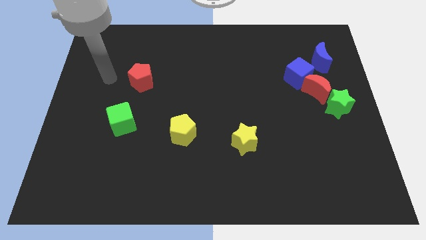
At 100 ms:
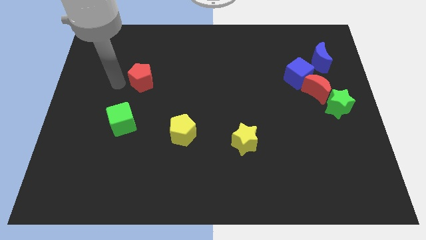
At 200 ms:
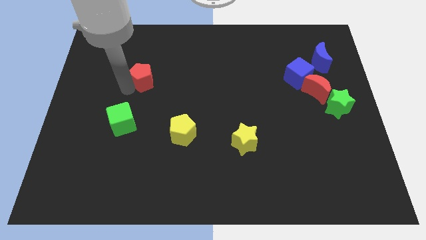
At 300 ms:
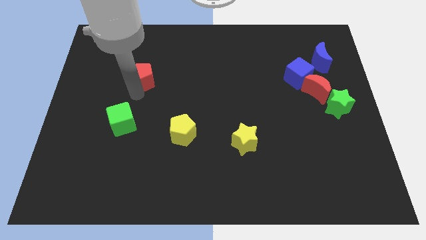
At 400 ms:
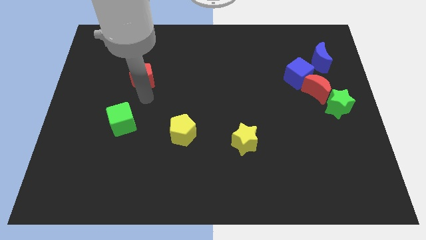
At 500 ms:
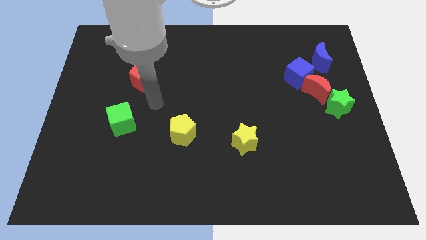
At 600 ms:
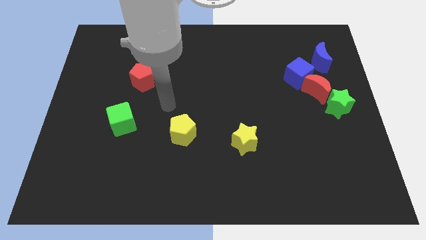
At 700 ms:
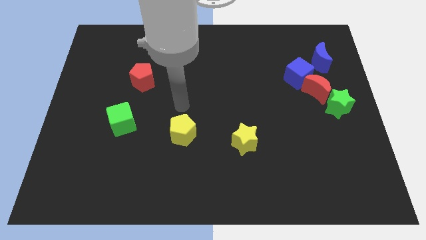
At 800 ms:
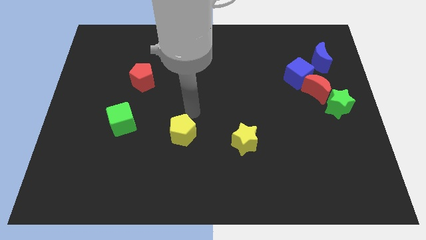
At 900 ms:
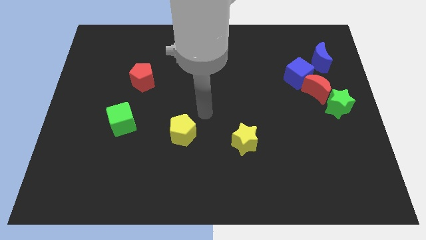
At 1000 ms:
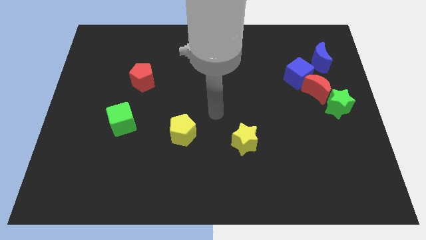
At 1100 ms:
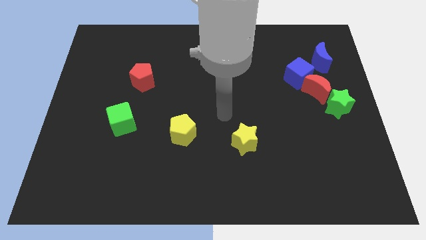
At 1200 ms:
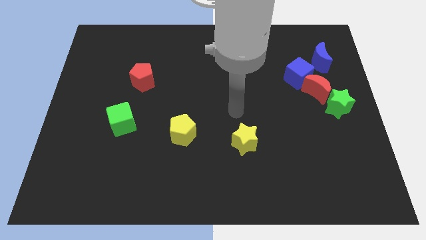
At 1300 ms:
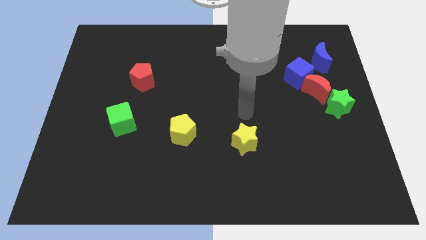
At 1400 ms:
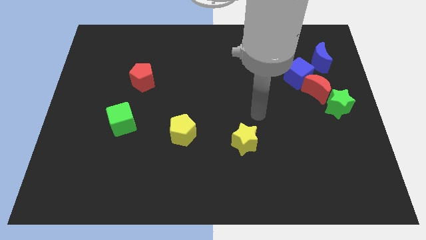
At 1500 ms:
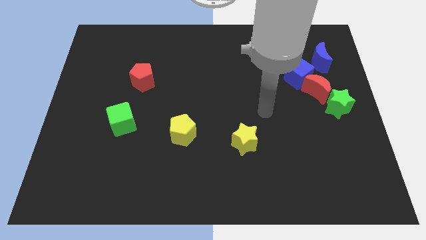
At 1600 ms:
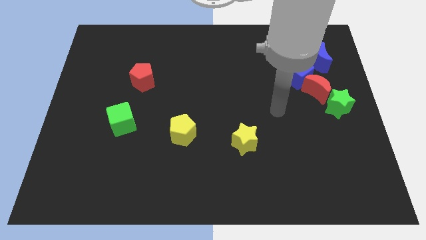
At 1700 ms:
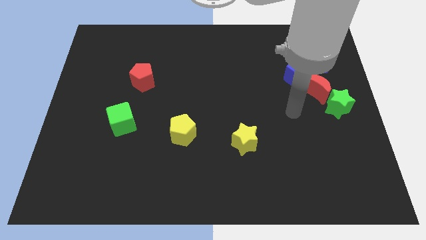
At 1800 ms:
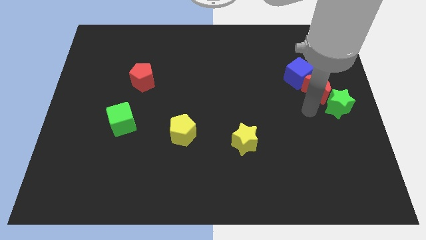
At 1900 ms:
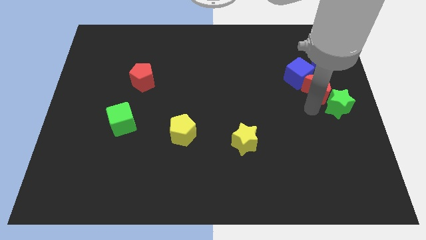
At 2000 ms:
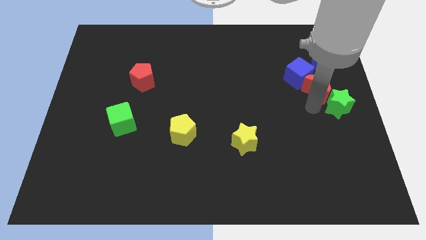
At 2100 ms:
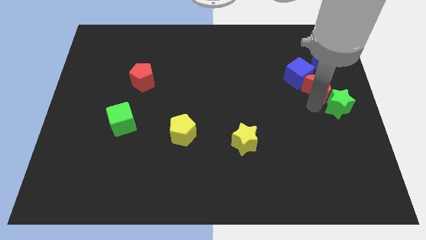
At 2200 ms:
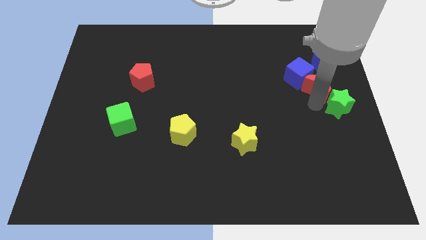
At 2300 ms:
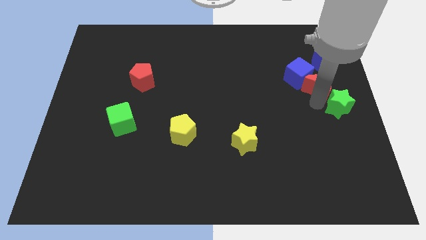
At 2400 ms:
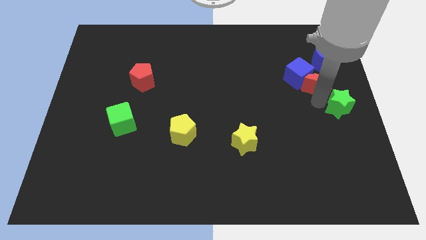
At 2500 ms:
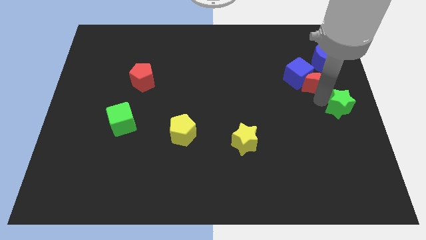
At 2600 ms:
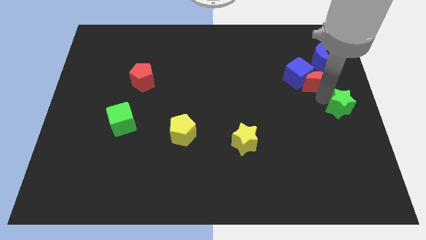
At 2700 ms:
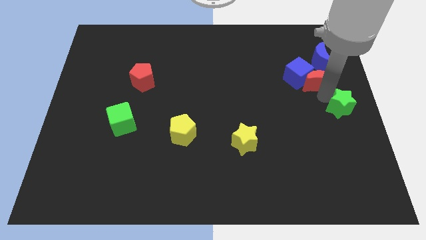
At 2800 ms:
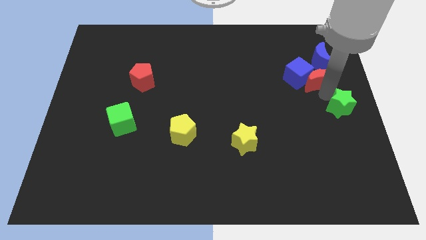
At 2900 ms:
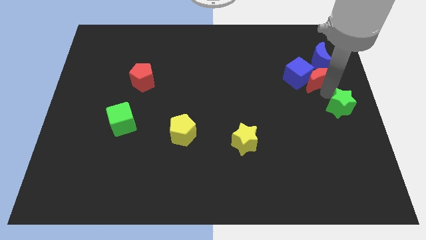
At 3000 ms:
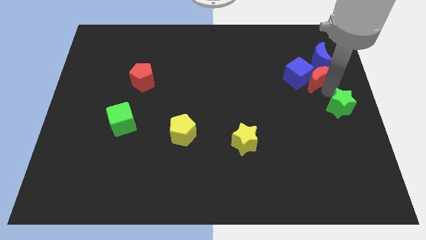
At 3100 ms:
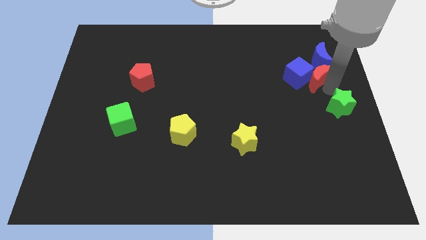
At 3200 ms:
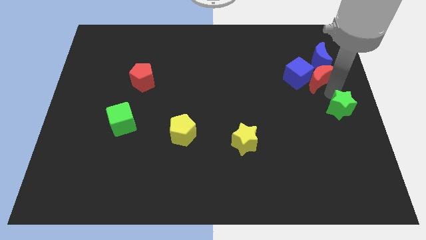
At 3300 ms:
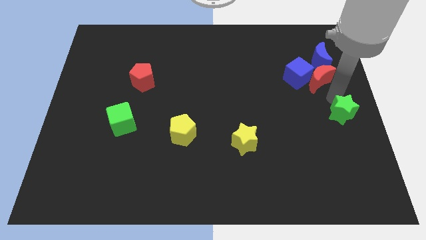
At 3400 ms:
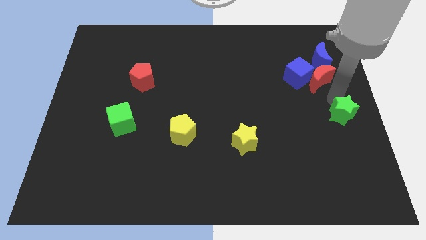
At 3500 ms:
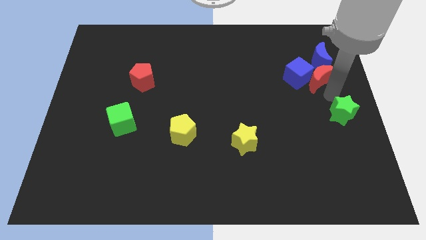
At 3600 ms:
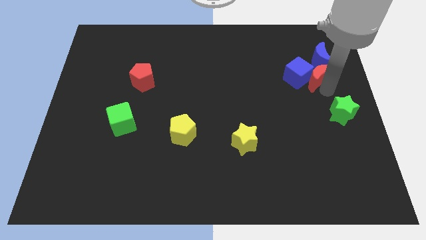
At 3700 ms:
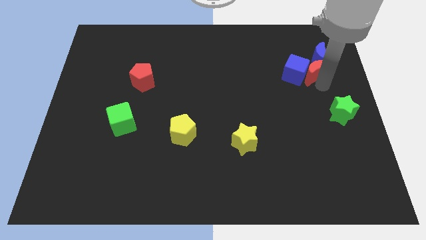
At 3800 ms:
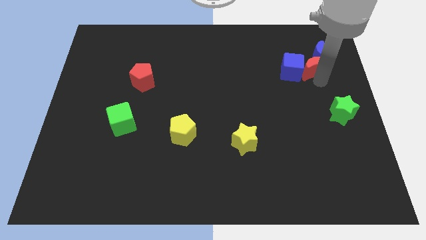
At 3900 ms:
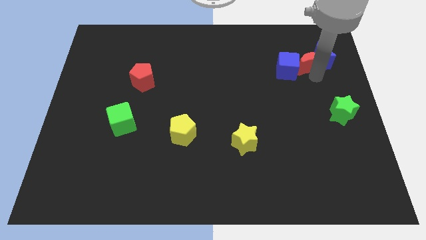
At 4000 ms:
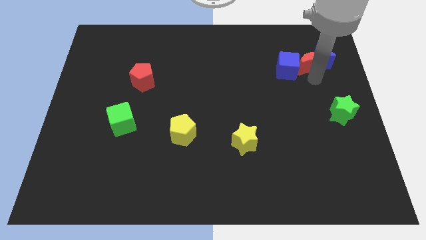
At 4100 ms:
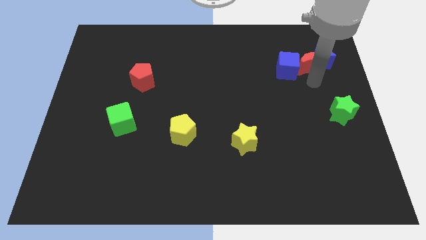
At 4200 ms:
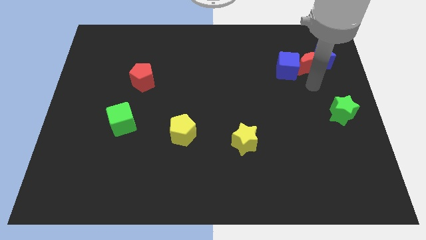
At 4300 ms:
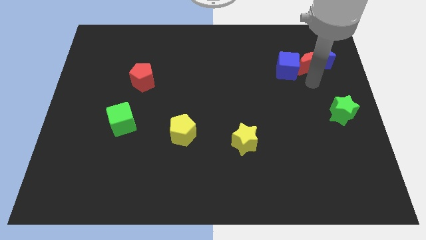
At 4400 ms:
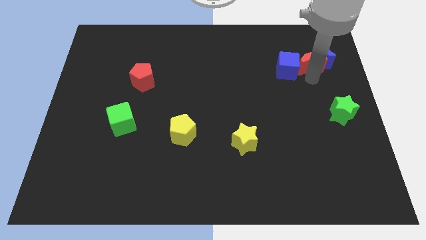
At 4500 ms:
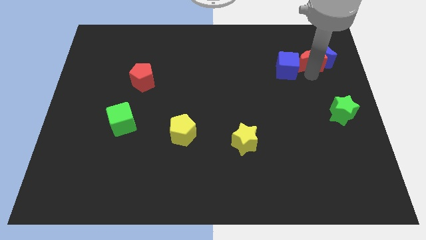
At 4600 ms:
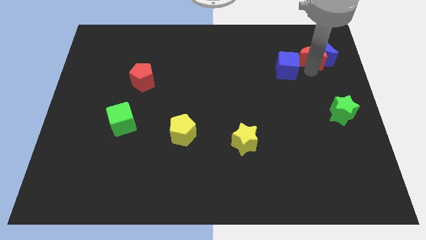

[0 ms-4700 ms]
pull the red moon apart from the blue cube and green star

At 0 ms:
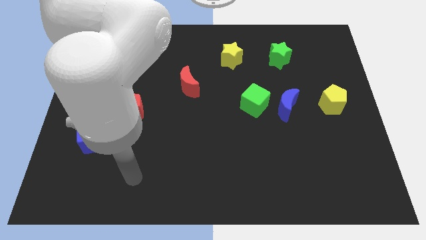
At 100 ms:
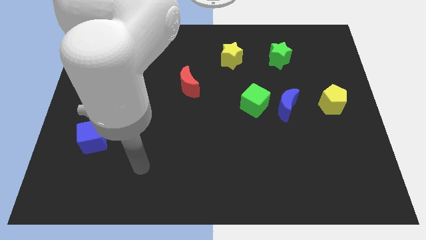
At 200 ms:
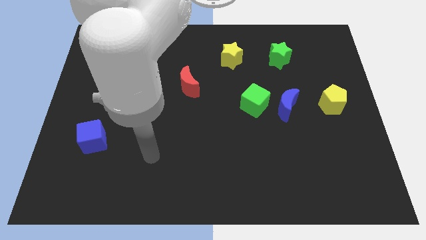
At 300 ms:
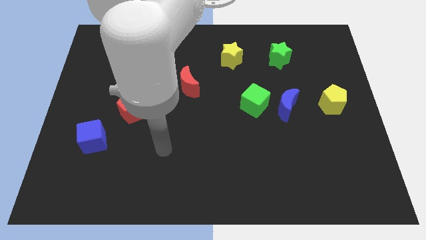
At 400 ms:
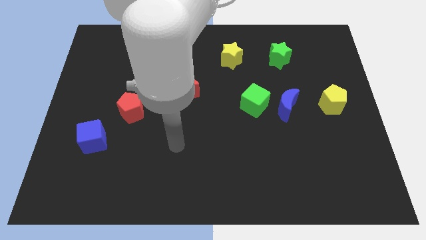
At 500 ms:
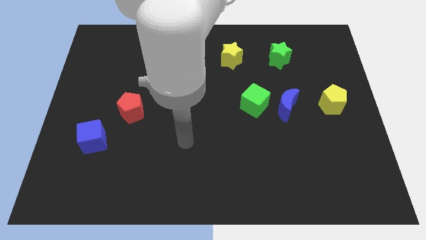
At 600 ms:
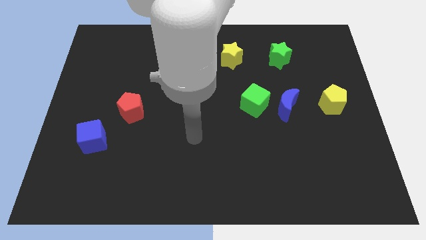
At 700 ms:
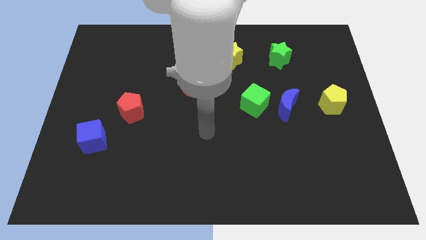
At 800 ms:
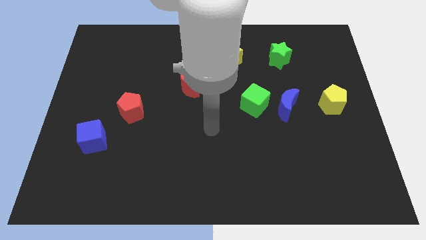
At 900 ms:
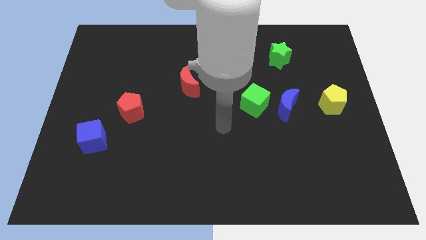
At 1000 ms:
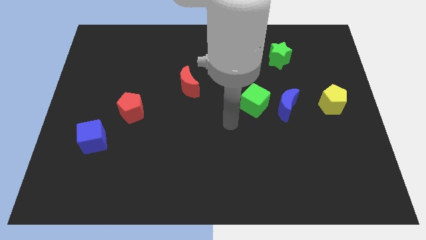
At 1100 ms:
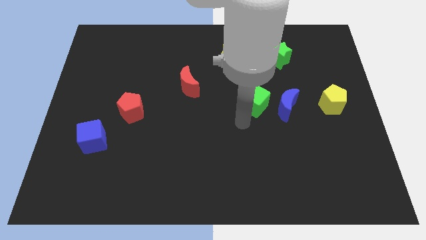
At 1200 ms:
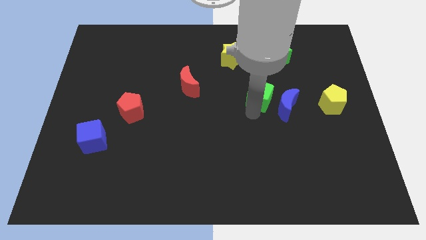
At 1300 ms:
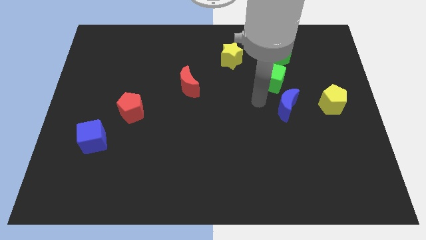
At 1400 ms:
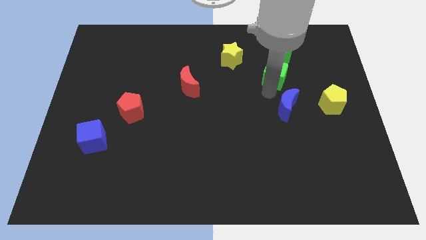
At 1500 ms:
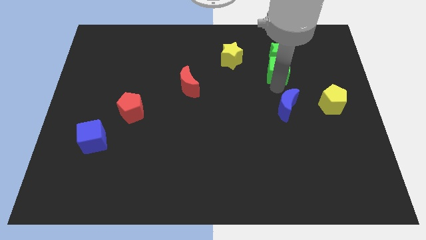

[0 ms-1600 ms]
separate the blue moon from the green cube

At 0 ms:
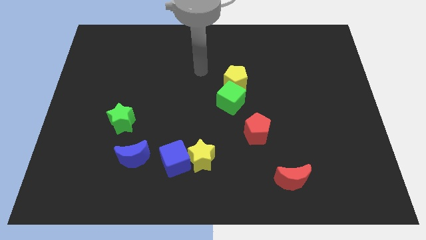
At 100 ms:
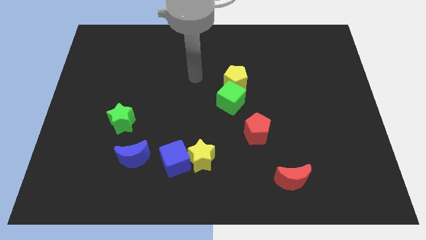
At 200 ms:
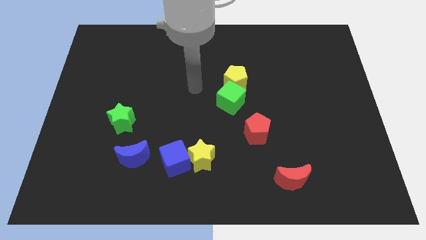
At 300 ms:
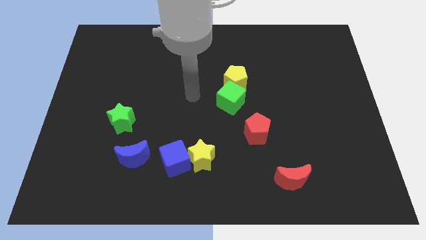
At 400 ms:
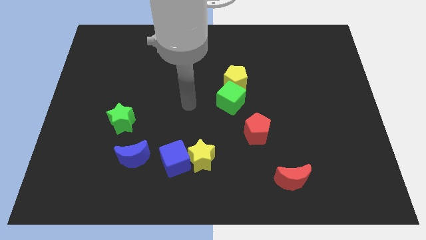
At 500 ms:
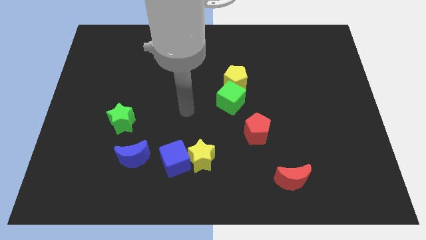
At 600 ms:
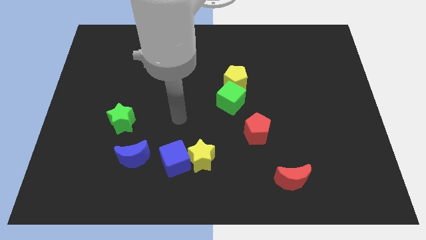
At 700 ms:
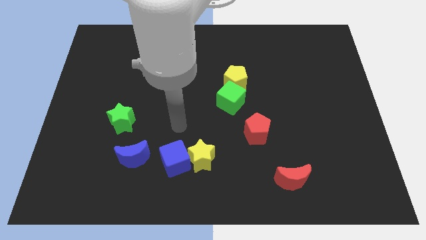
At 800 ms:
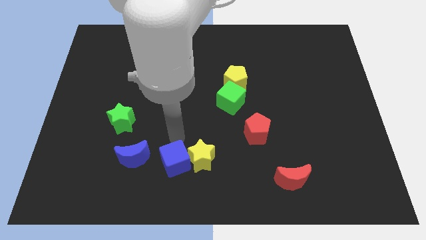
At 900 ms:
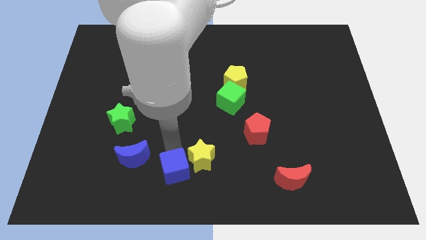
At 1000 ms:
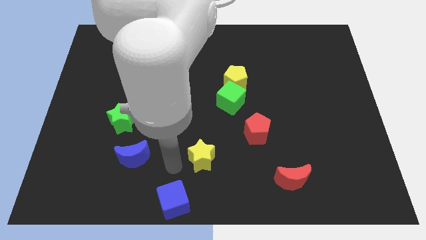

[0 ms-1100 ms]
separate the yellow star from the blue cube

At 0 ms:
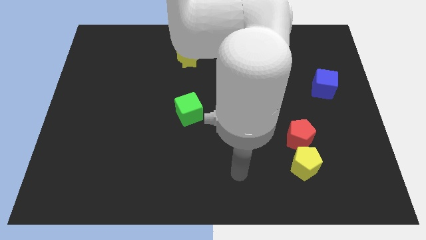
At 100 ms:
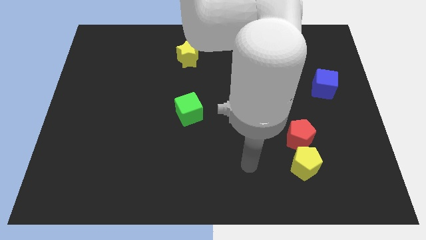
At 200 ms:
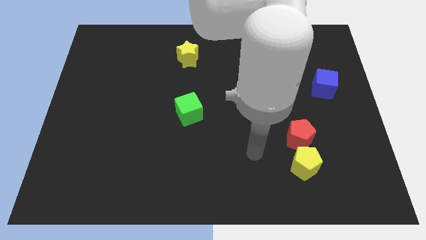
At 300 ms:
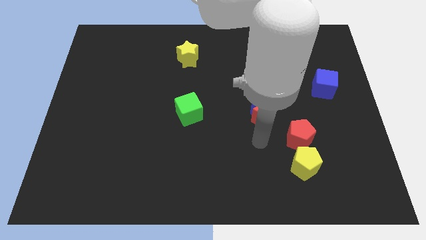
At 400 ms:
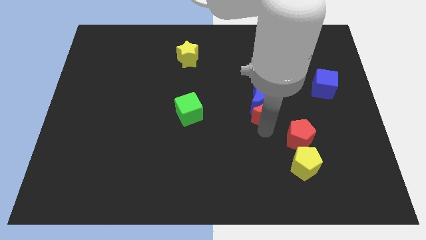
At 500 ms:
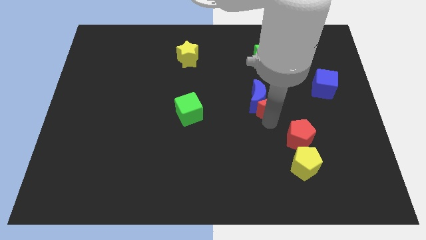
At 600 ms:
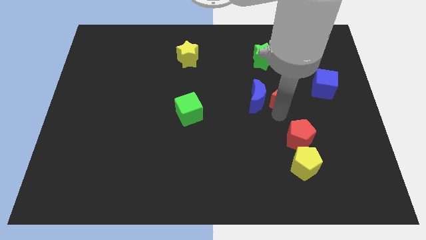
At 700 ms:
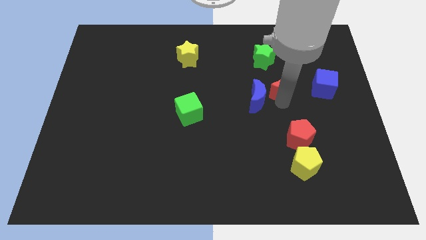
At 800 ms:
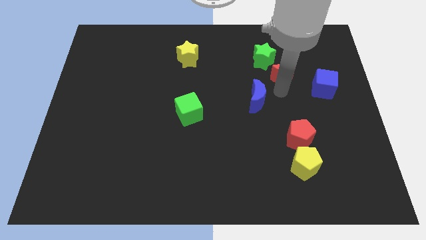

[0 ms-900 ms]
pull the blue moon apart from the red moon

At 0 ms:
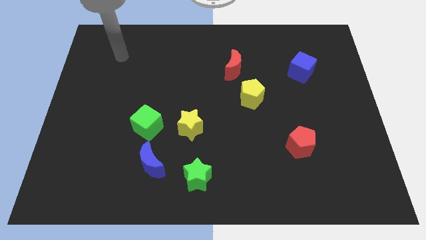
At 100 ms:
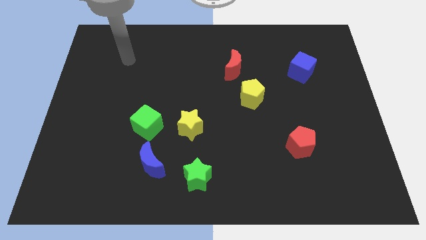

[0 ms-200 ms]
separate the yellow star from the green cube

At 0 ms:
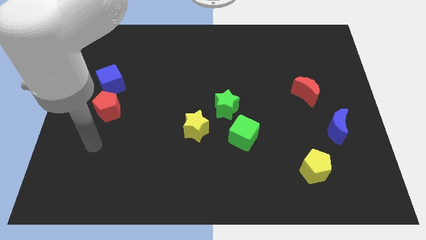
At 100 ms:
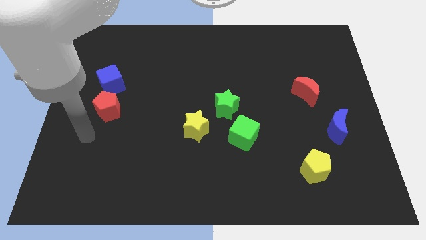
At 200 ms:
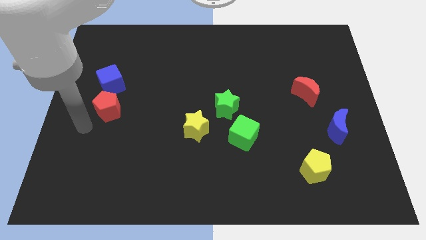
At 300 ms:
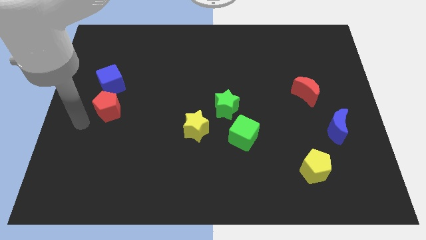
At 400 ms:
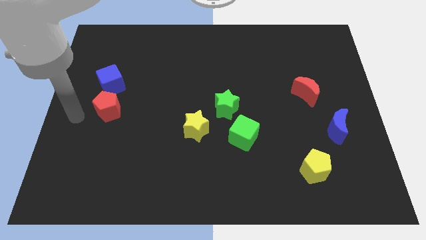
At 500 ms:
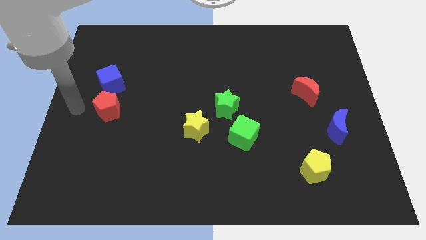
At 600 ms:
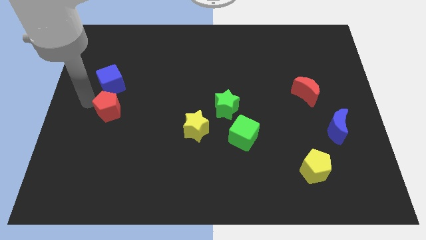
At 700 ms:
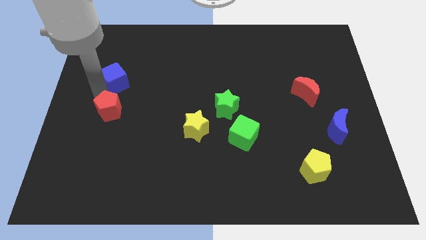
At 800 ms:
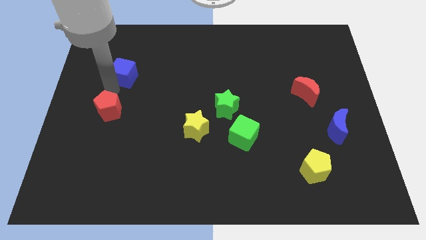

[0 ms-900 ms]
separate the red pentagon from the blue cube

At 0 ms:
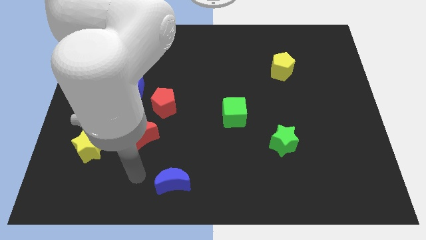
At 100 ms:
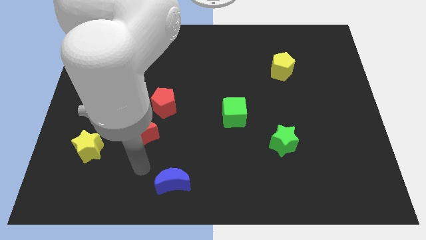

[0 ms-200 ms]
pull the red moon apart from the red pentagon
